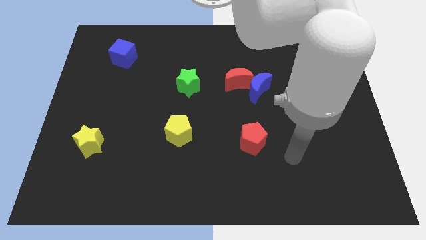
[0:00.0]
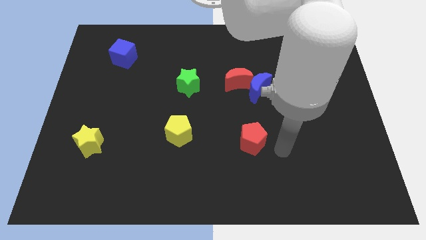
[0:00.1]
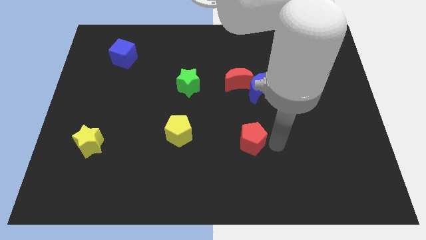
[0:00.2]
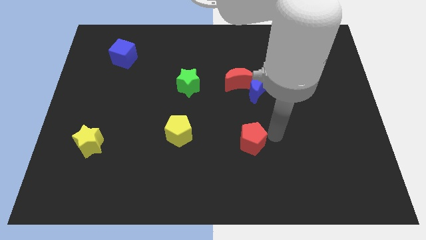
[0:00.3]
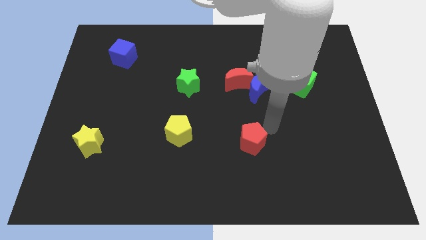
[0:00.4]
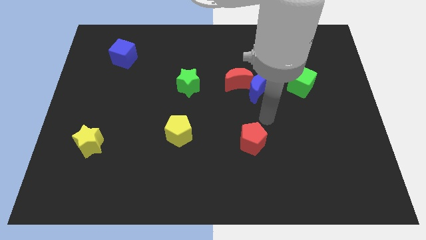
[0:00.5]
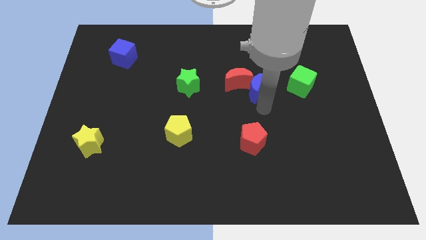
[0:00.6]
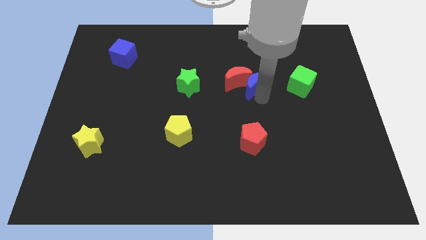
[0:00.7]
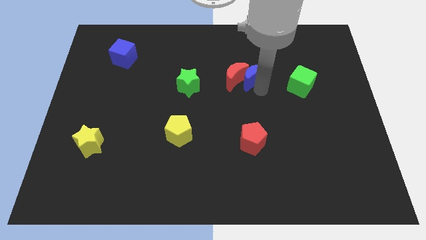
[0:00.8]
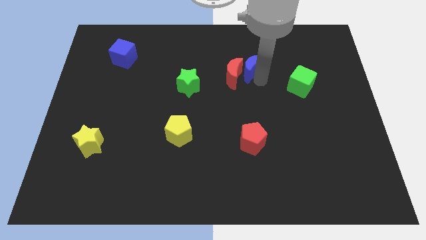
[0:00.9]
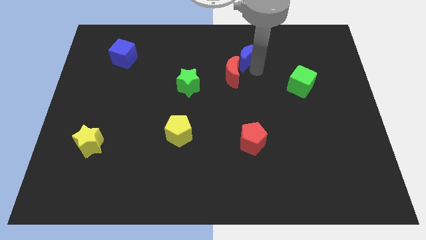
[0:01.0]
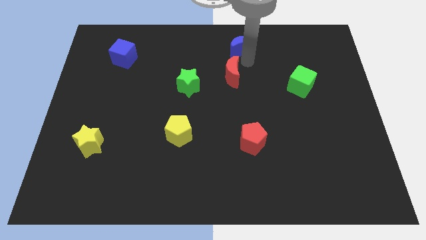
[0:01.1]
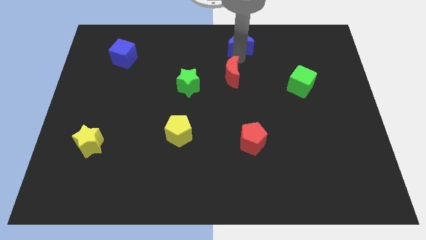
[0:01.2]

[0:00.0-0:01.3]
move the red moon away from the blue moon

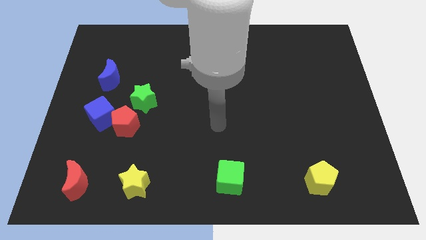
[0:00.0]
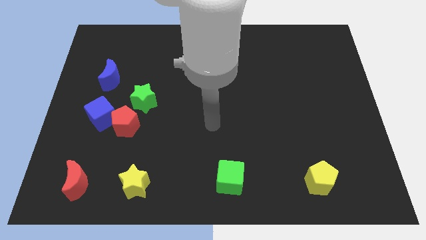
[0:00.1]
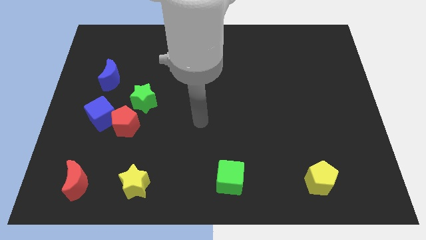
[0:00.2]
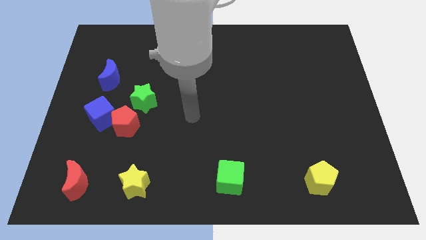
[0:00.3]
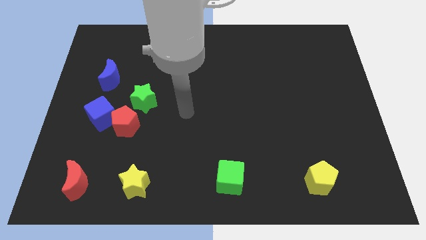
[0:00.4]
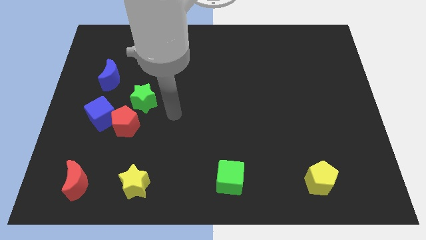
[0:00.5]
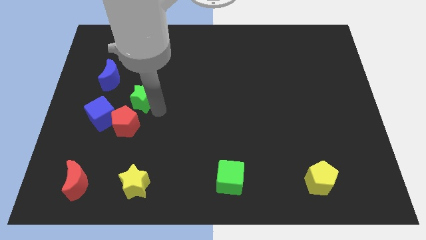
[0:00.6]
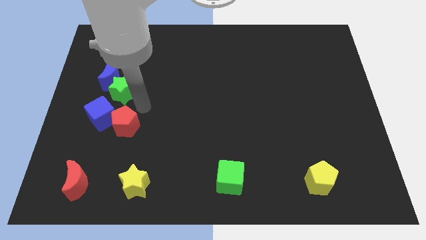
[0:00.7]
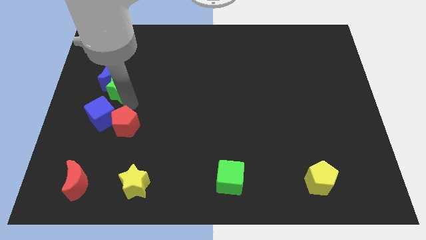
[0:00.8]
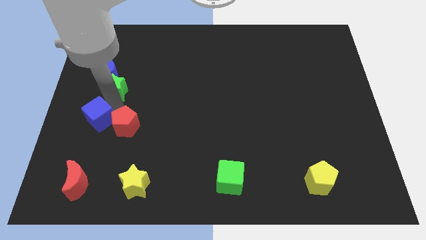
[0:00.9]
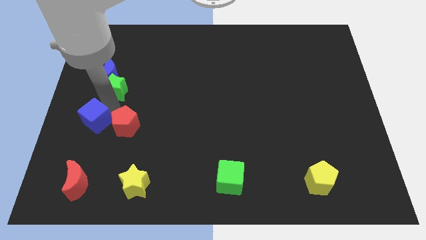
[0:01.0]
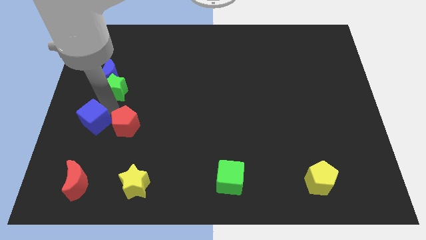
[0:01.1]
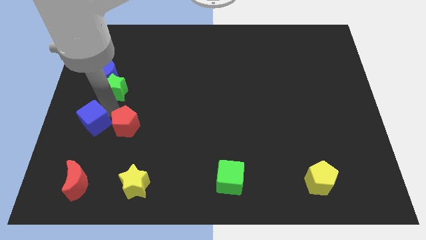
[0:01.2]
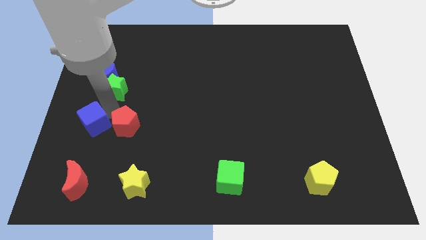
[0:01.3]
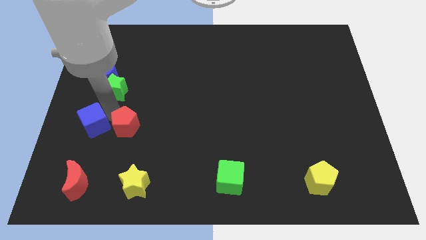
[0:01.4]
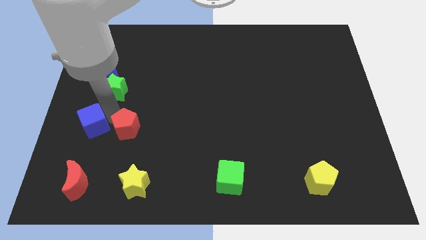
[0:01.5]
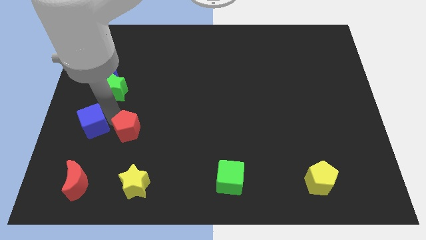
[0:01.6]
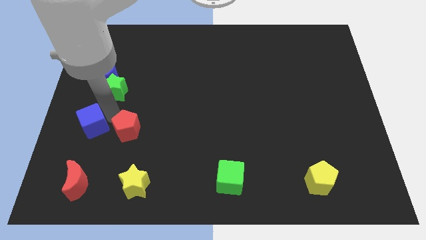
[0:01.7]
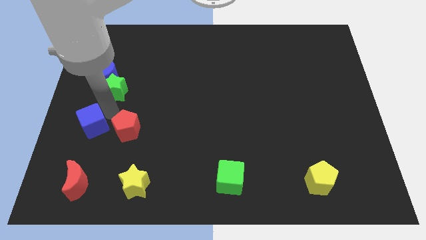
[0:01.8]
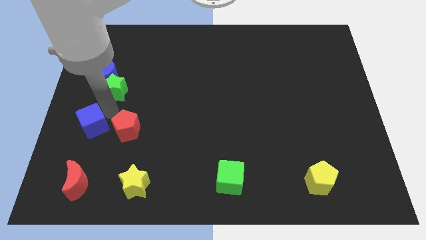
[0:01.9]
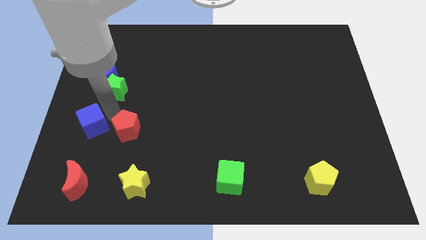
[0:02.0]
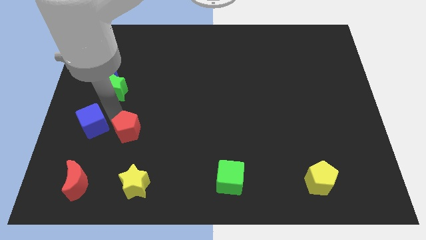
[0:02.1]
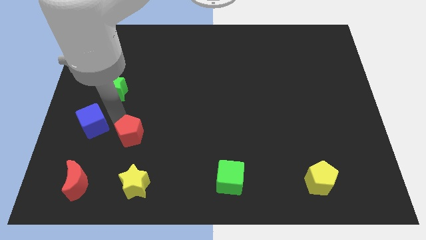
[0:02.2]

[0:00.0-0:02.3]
separate the red pentagon from the blue cube and green star

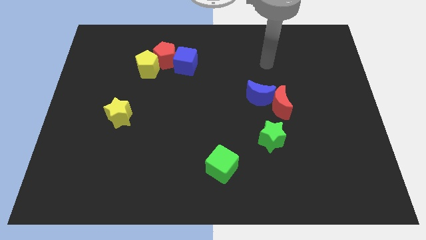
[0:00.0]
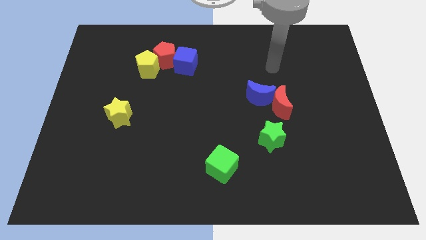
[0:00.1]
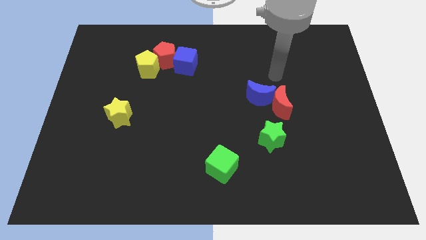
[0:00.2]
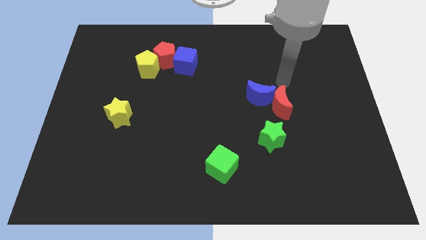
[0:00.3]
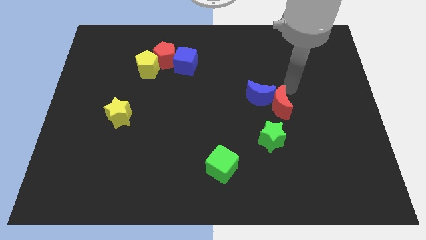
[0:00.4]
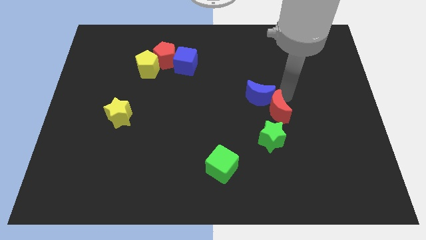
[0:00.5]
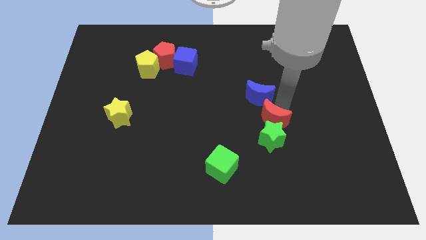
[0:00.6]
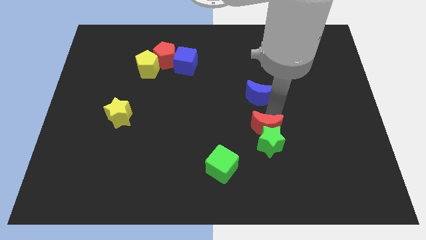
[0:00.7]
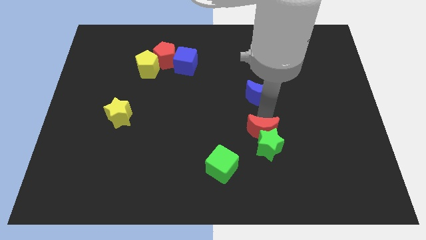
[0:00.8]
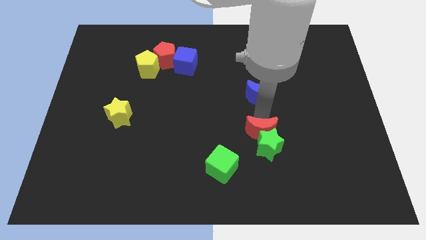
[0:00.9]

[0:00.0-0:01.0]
separate the blue moon from the red moon

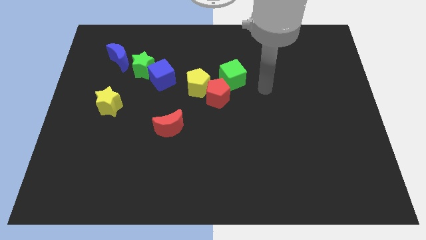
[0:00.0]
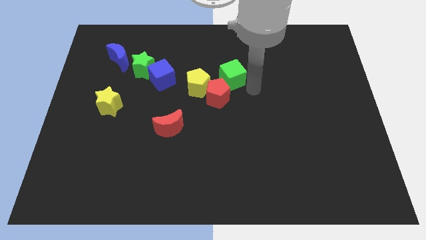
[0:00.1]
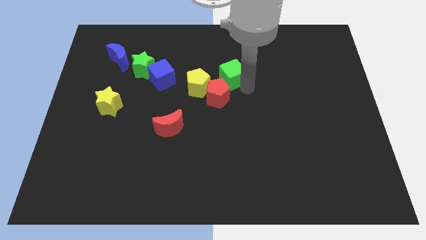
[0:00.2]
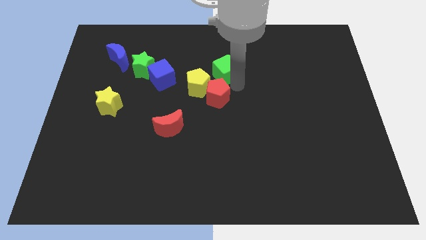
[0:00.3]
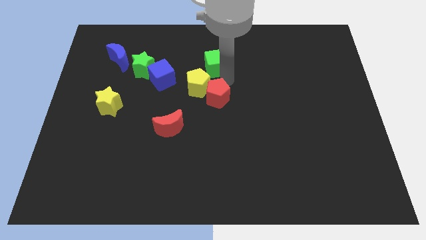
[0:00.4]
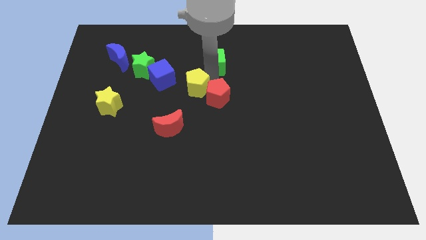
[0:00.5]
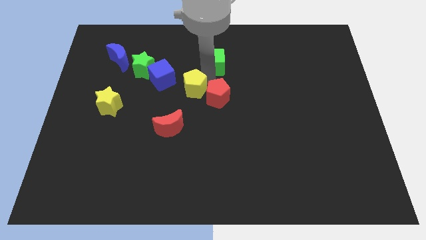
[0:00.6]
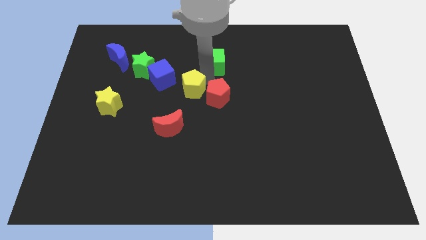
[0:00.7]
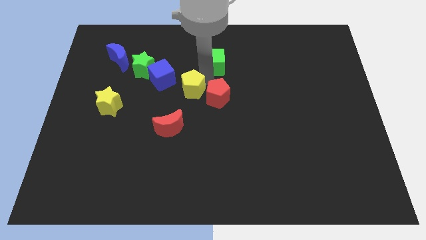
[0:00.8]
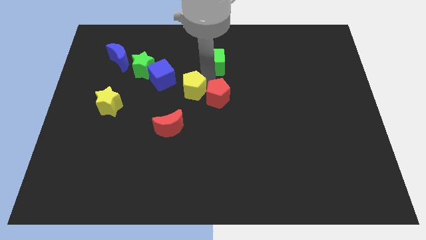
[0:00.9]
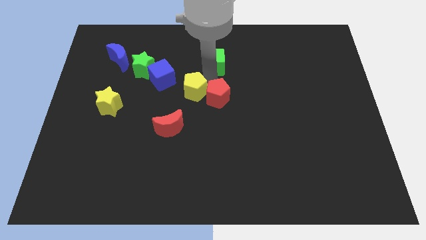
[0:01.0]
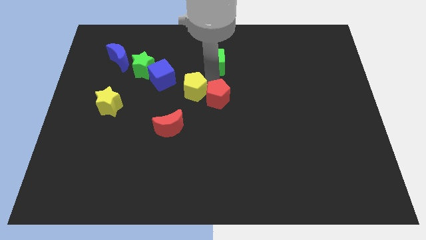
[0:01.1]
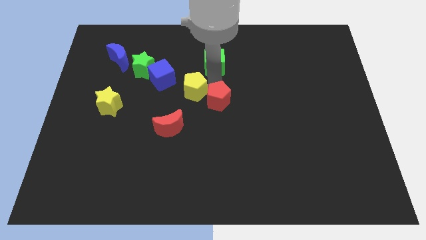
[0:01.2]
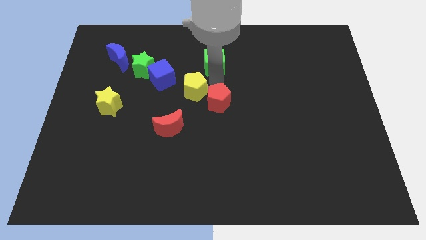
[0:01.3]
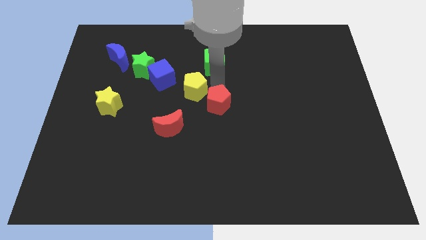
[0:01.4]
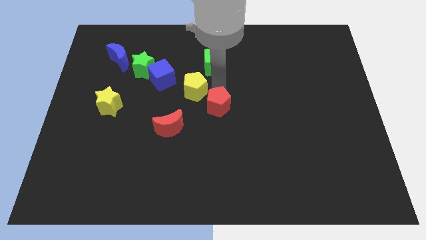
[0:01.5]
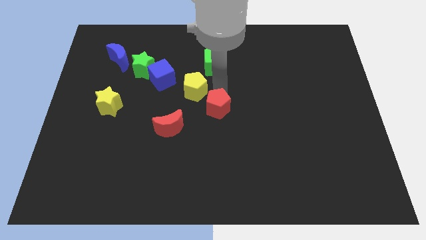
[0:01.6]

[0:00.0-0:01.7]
pull the red pentagon apart from the yellow pentagon and green cube

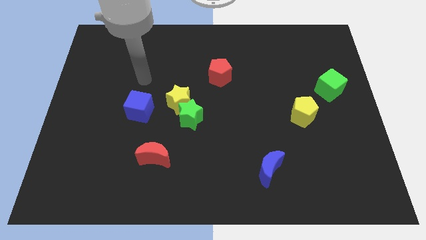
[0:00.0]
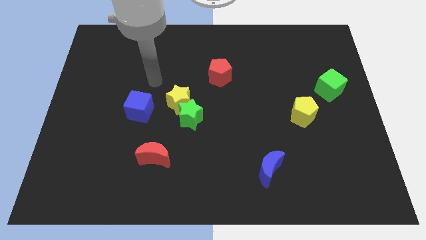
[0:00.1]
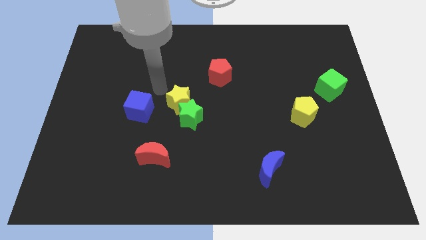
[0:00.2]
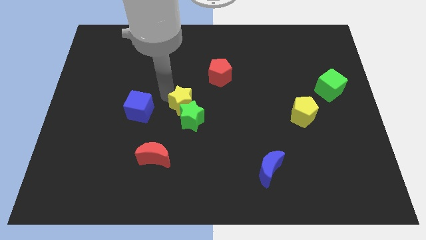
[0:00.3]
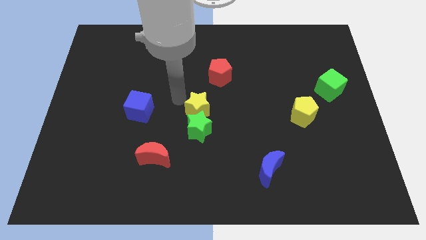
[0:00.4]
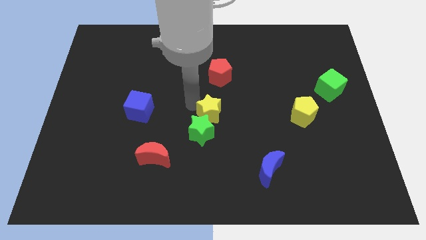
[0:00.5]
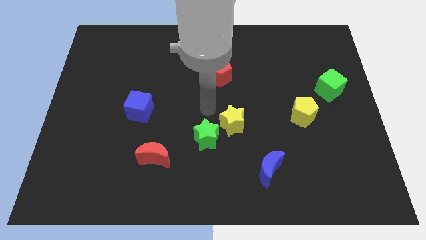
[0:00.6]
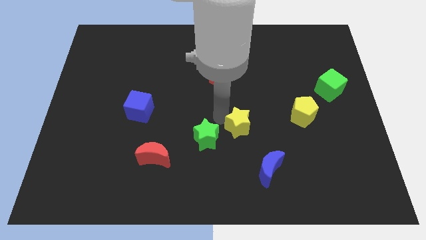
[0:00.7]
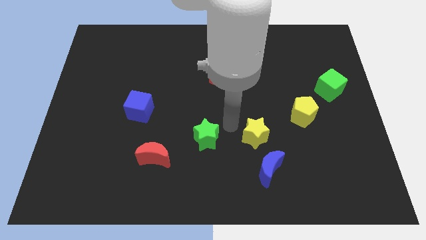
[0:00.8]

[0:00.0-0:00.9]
move the green star away from the yellow star

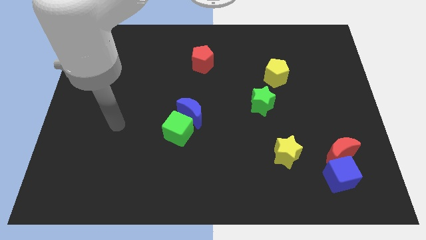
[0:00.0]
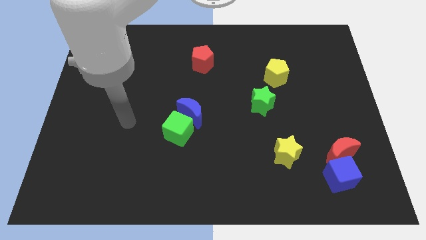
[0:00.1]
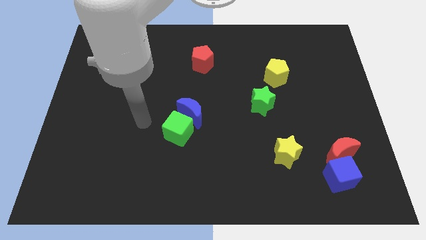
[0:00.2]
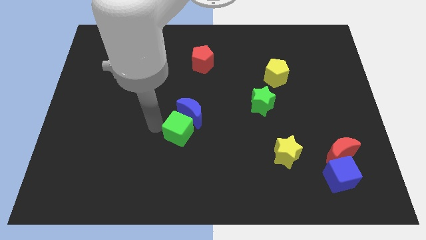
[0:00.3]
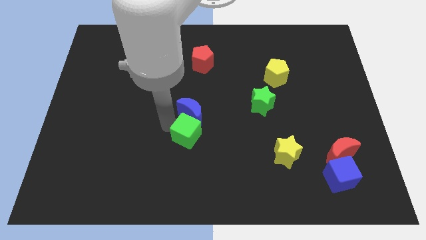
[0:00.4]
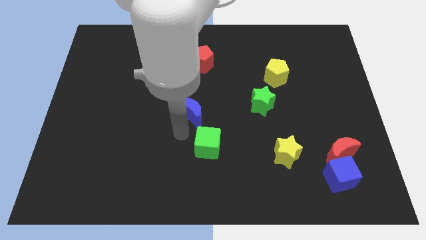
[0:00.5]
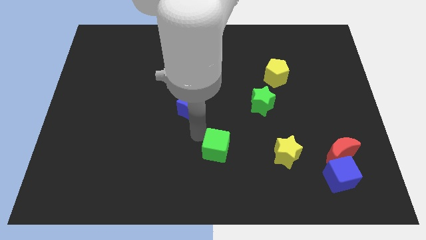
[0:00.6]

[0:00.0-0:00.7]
move the blue moon away from the green cube

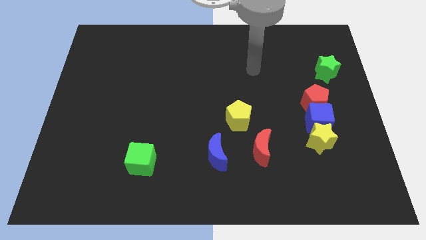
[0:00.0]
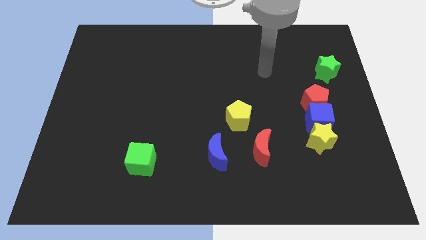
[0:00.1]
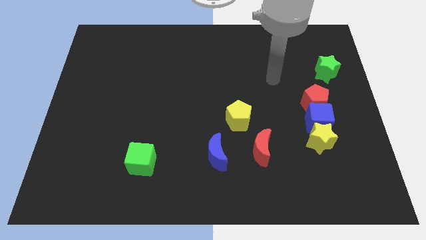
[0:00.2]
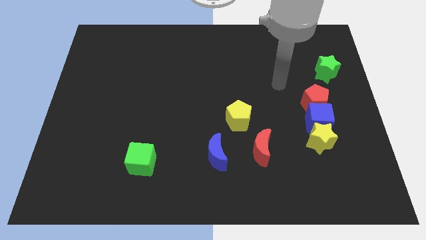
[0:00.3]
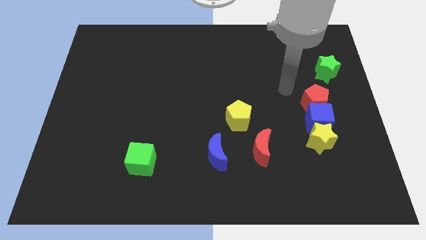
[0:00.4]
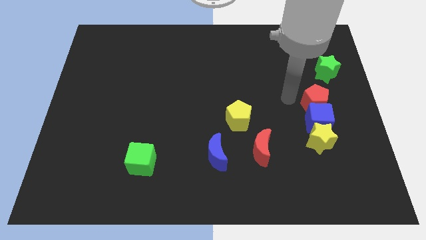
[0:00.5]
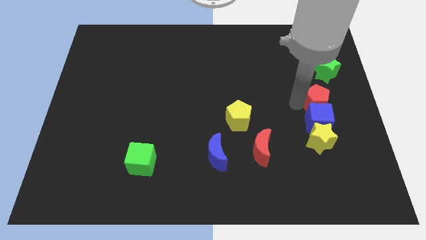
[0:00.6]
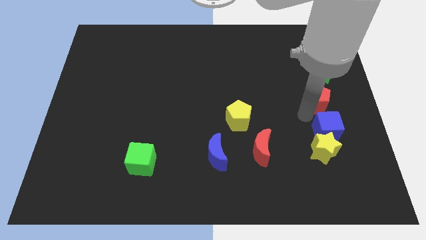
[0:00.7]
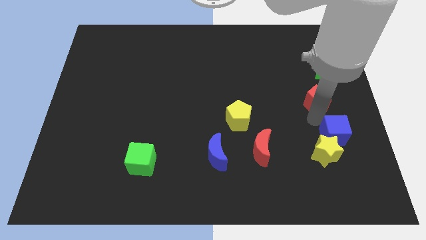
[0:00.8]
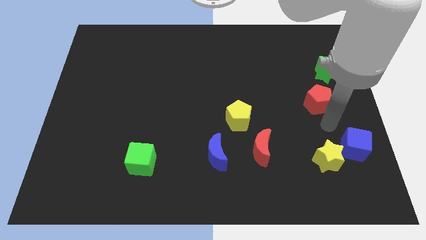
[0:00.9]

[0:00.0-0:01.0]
move the red pentagon away from the blue cube

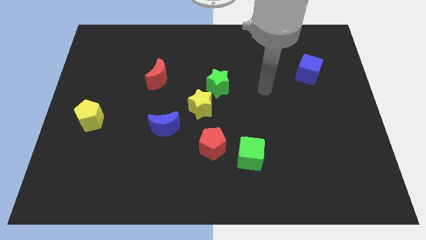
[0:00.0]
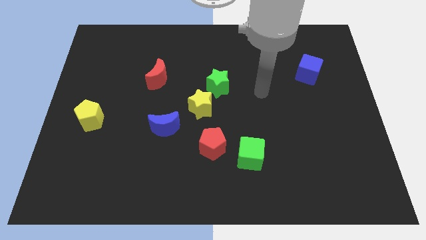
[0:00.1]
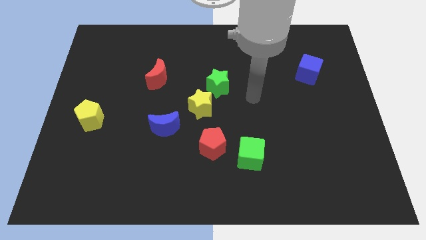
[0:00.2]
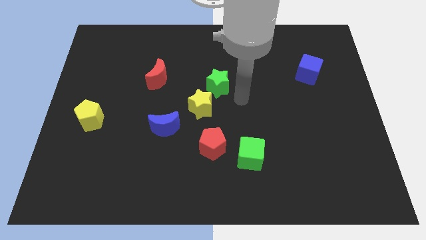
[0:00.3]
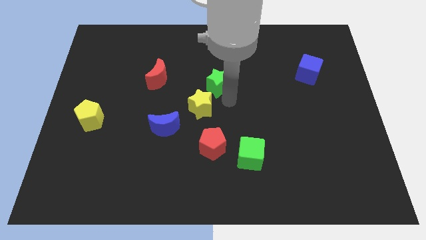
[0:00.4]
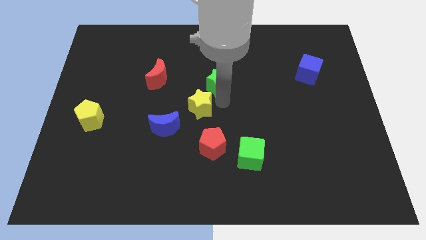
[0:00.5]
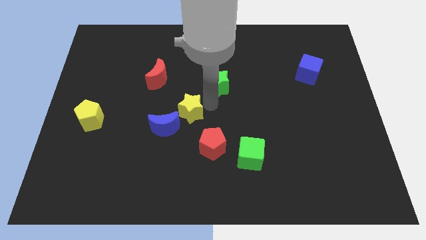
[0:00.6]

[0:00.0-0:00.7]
separate the green star from the yellow star
